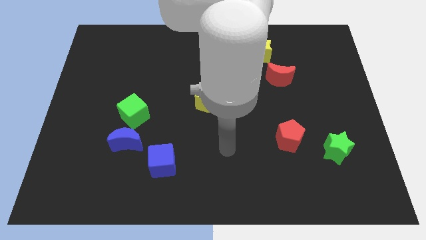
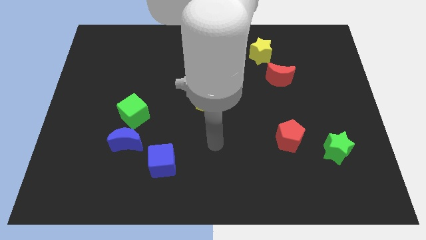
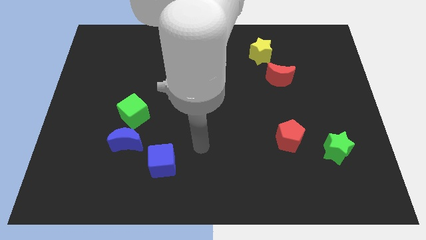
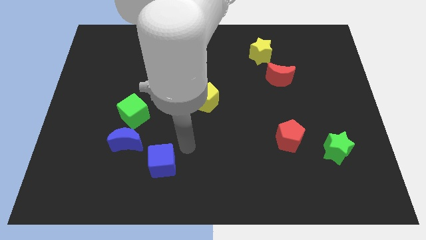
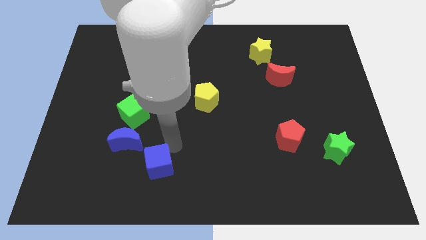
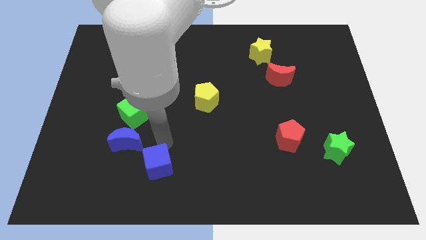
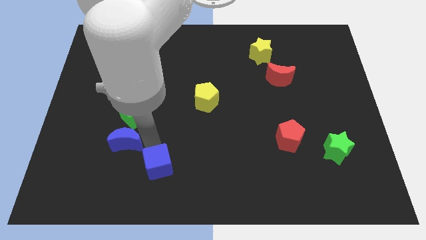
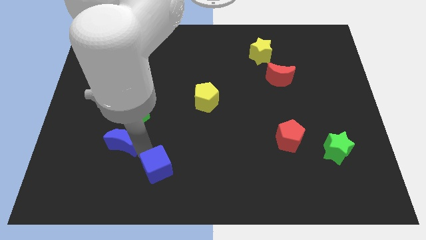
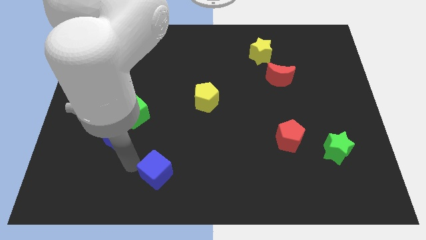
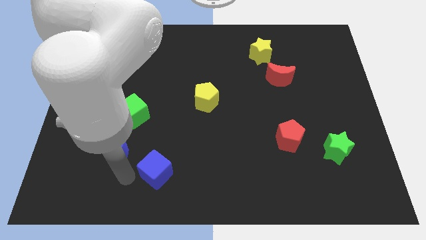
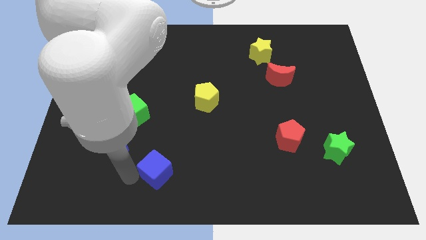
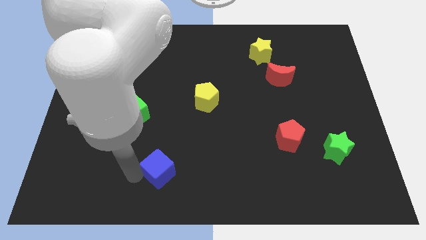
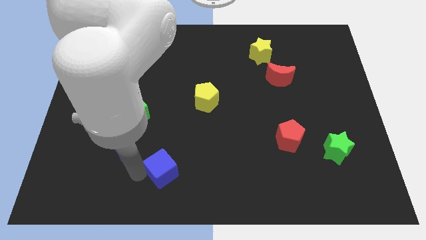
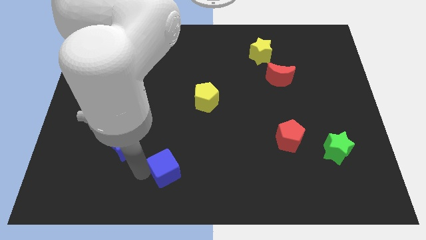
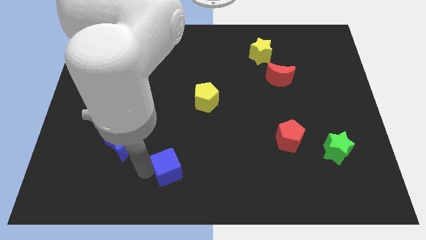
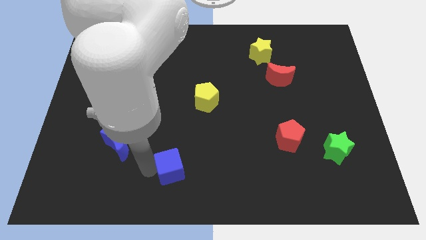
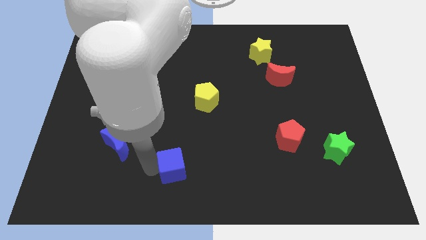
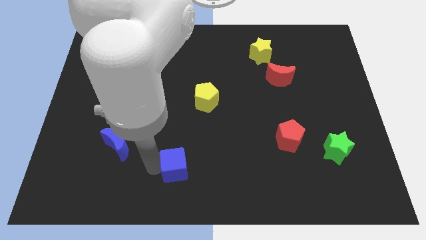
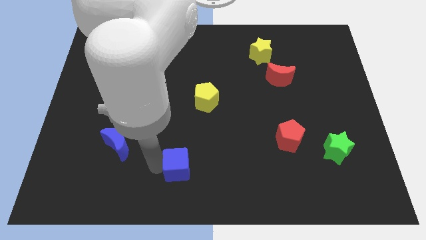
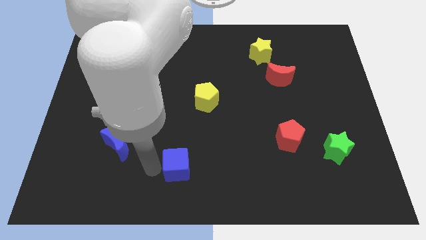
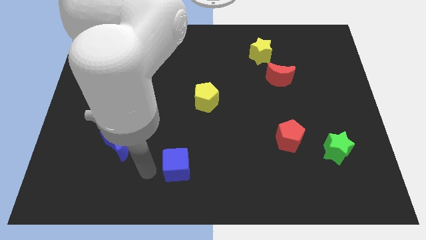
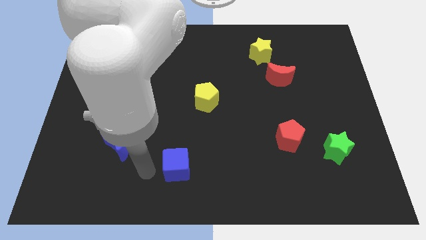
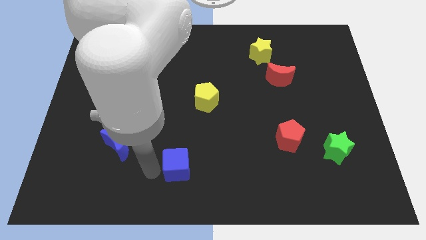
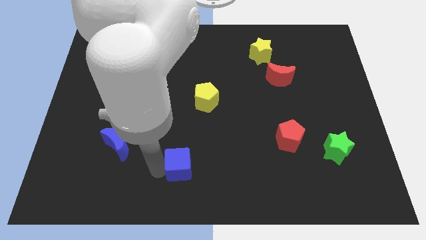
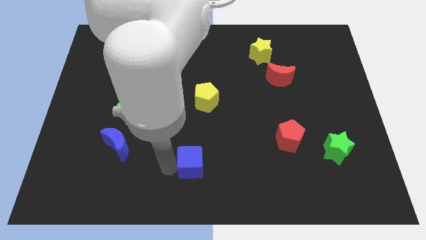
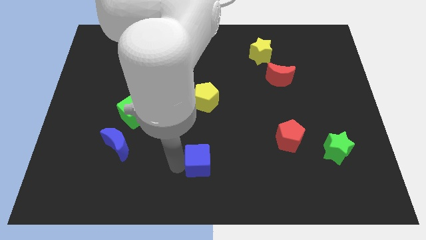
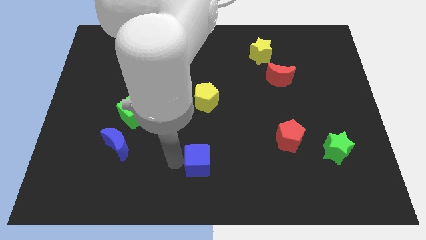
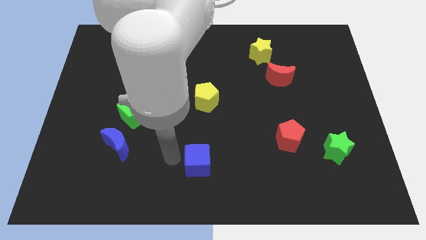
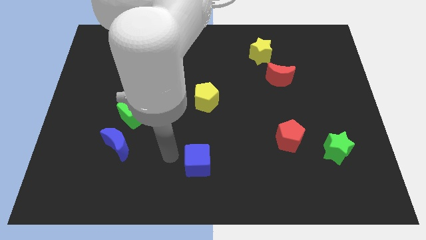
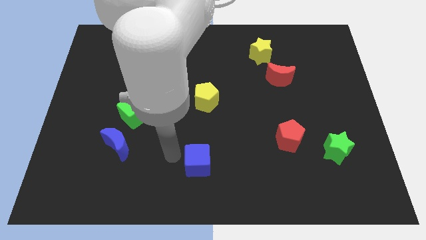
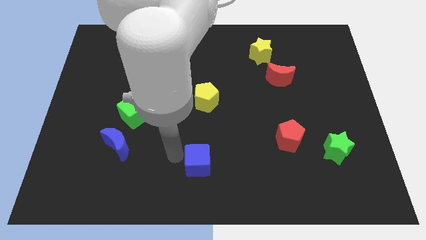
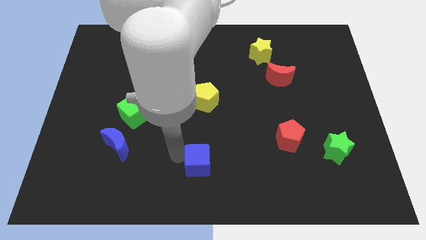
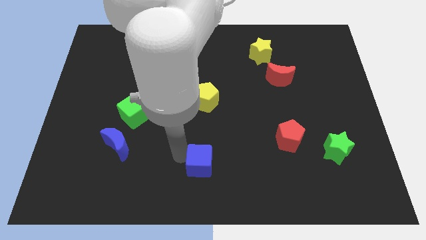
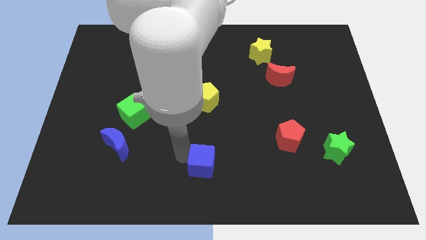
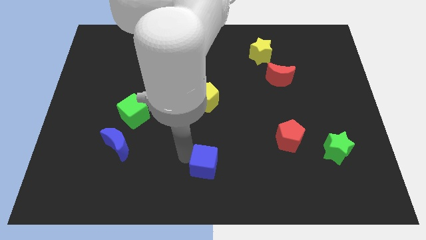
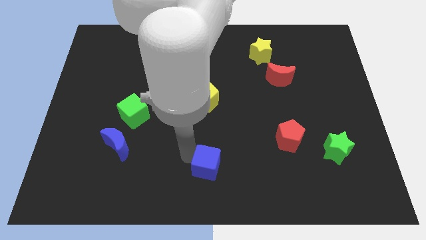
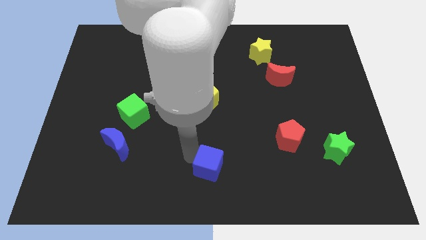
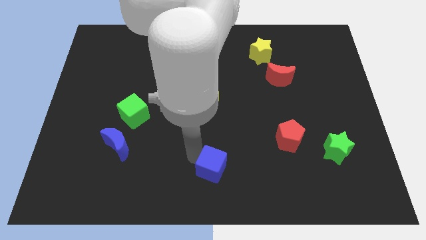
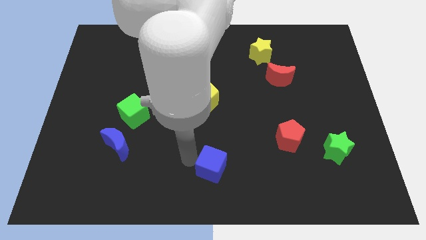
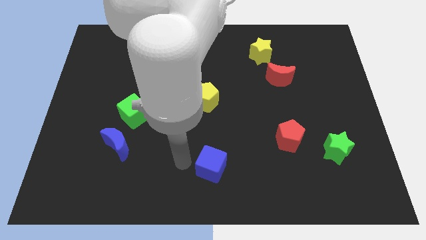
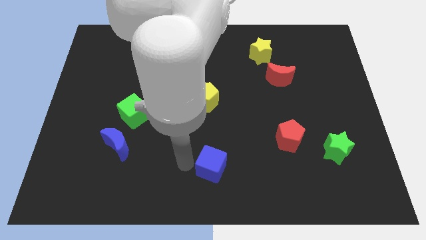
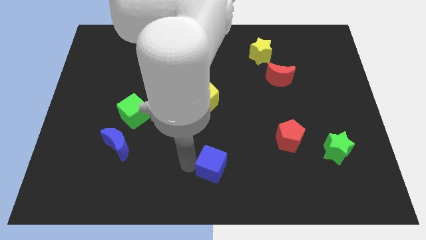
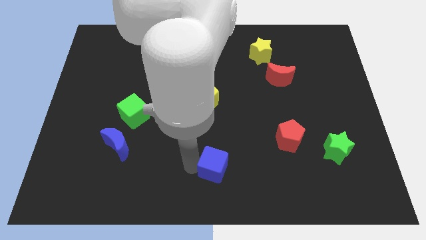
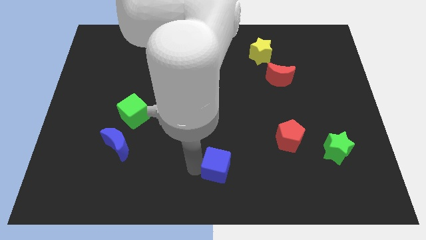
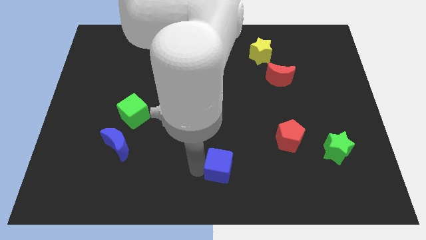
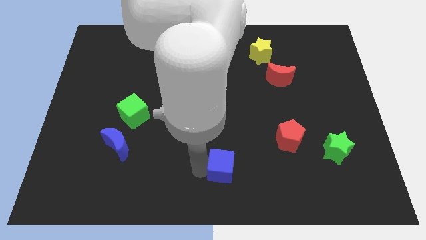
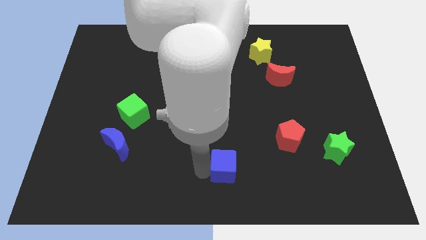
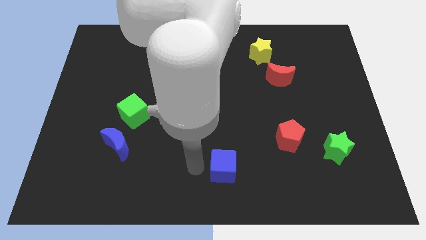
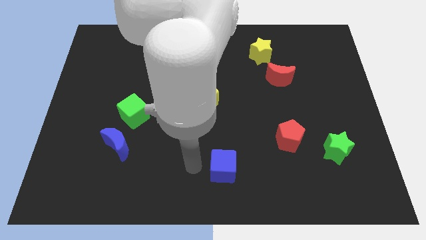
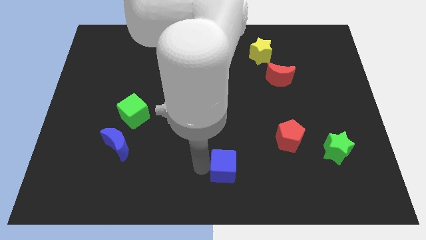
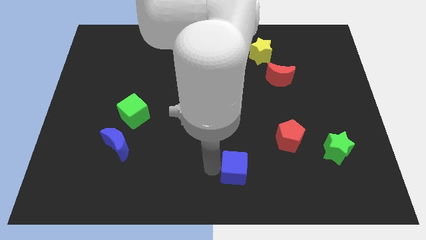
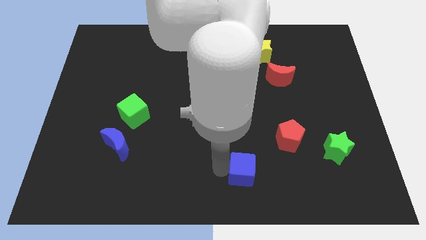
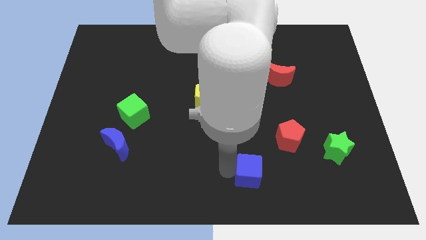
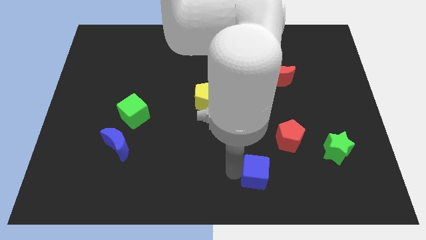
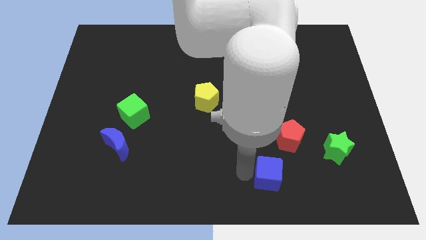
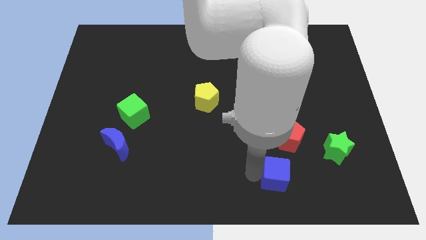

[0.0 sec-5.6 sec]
put the blue cube to the bottom side of the red pentagon

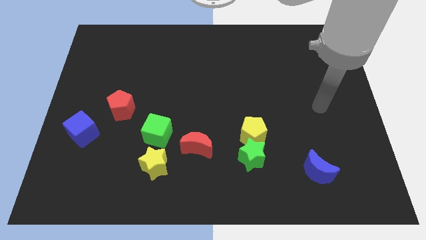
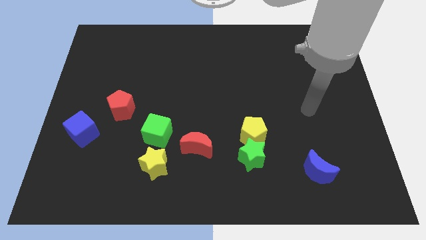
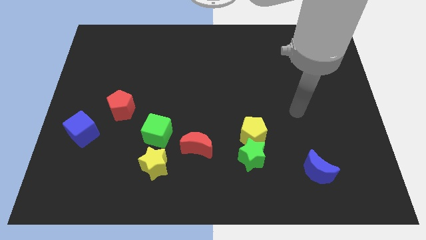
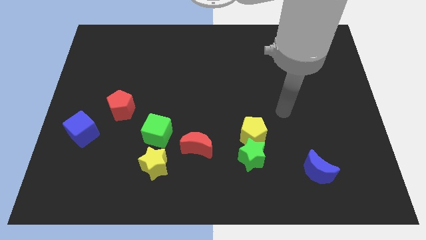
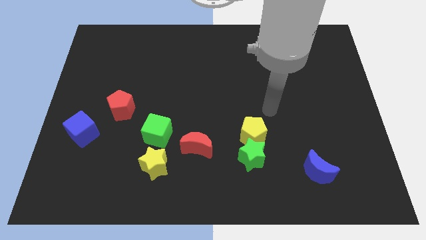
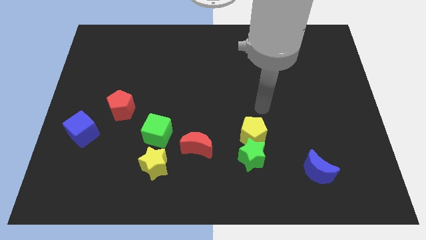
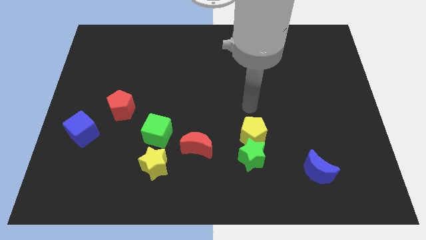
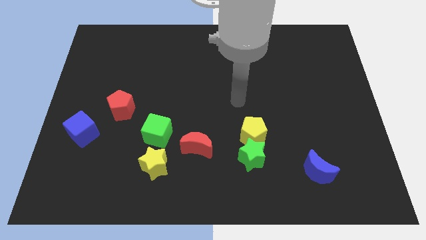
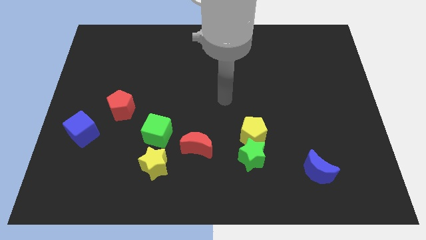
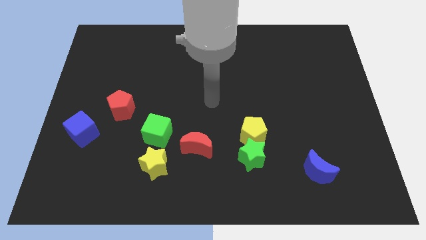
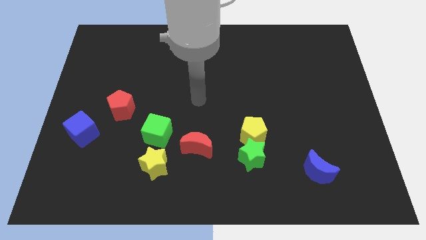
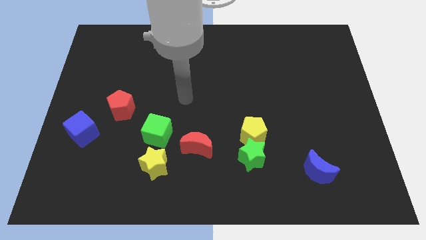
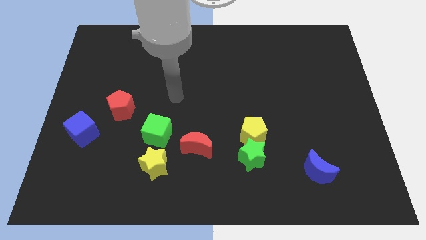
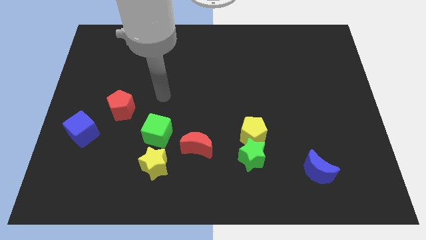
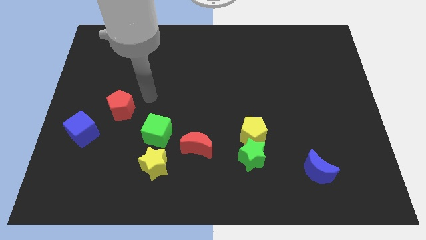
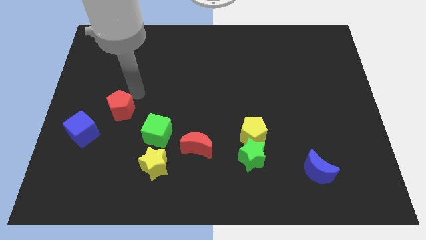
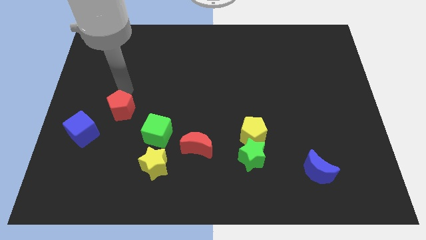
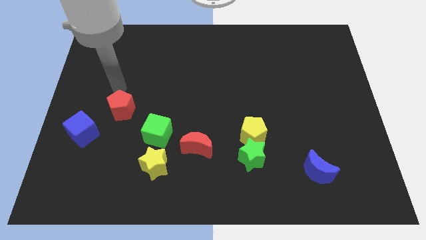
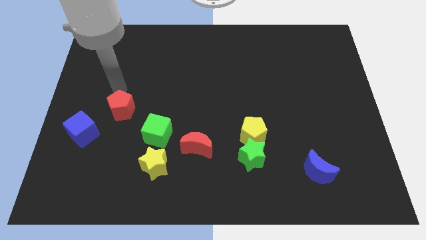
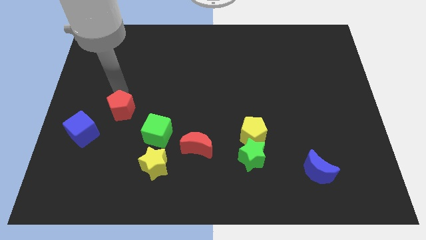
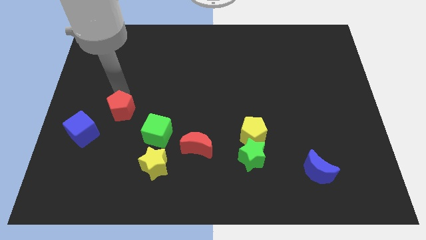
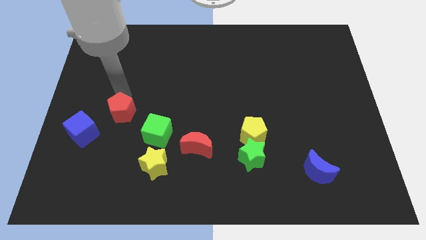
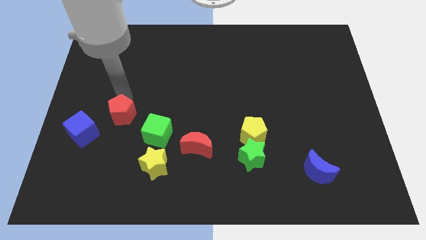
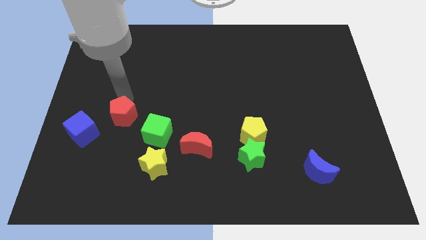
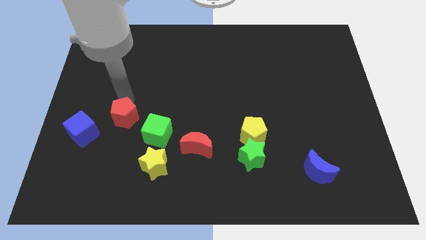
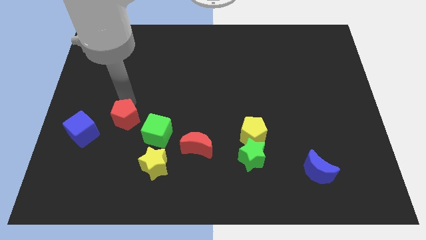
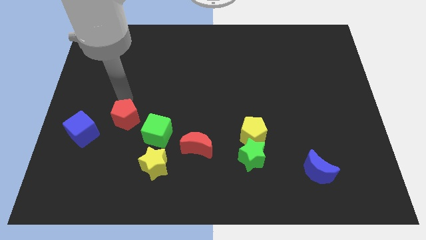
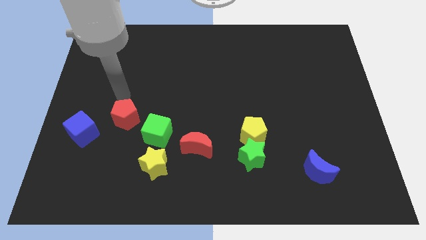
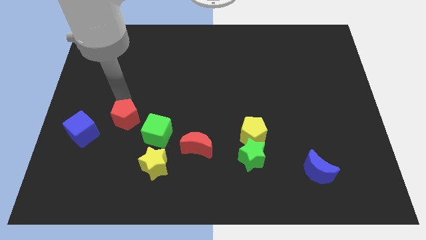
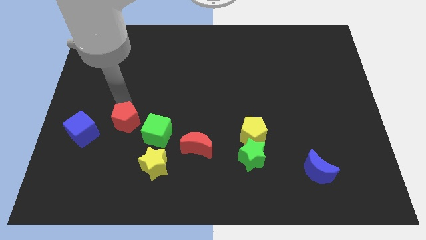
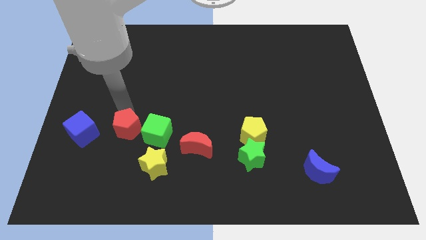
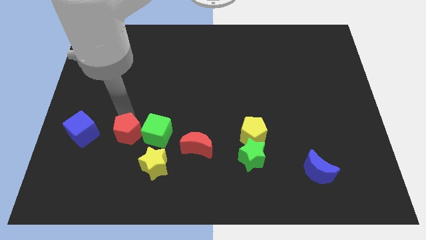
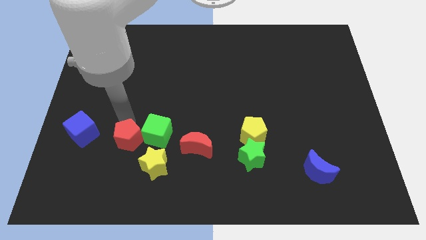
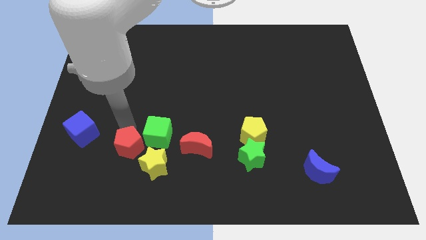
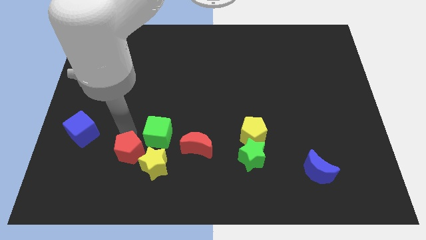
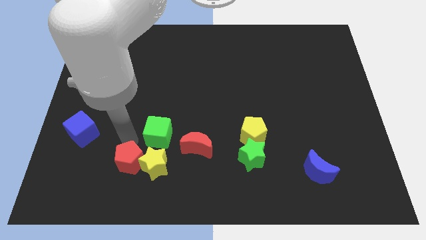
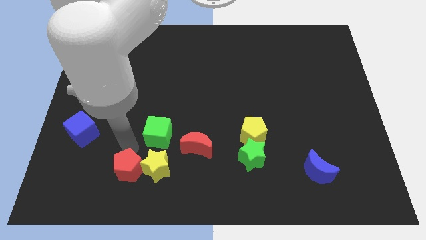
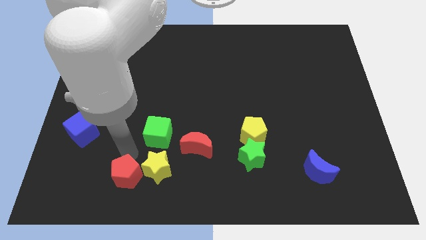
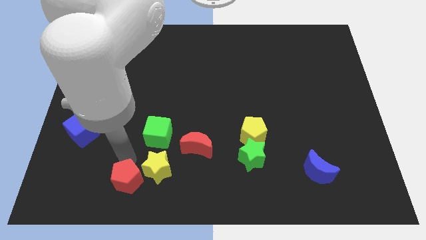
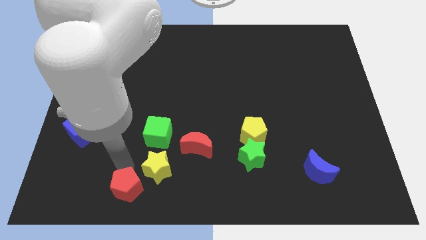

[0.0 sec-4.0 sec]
slide the red pentagon to the bottom side of the green cube
